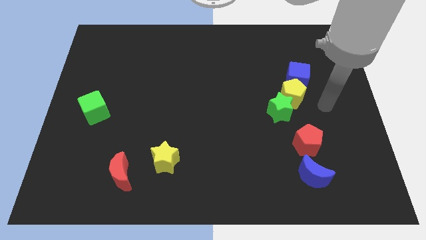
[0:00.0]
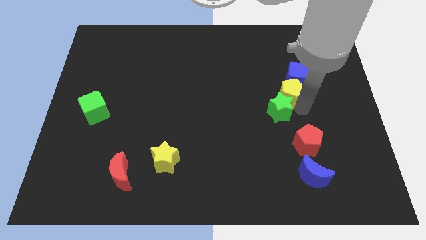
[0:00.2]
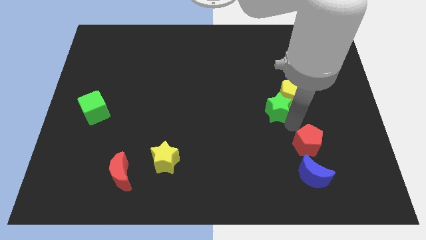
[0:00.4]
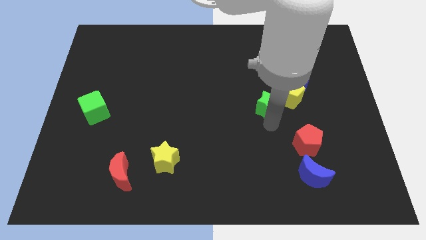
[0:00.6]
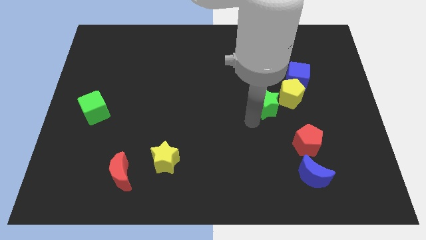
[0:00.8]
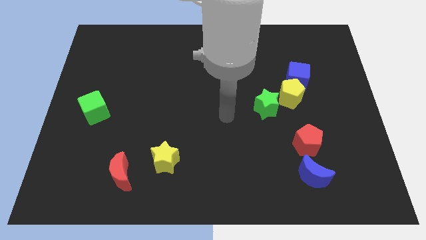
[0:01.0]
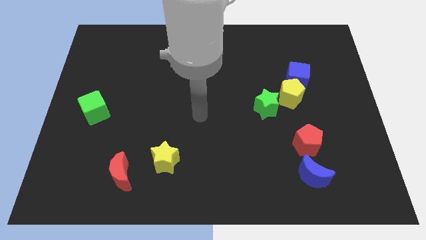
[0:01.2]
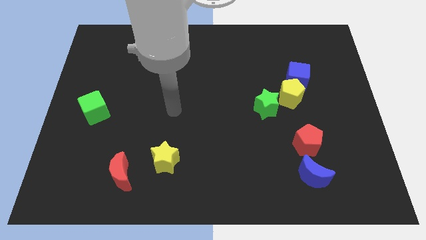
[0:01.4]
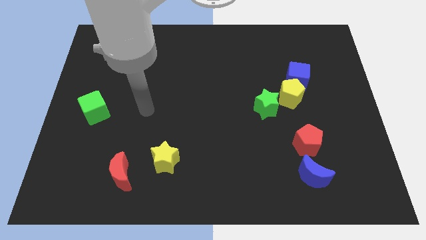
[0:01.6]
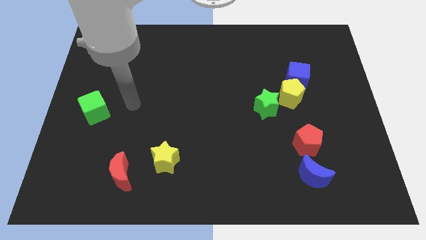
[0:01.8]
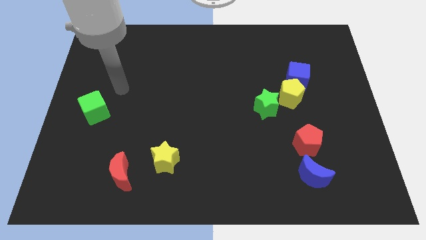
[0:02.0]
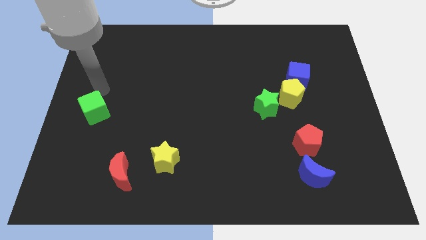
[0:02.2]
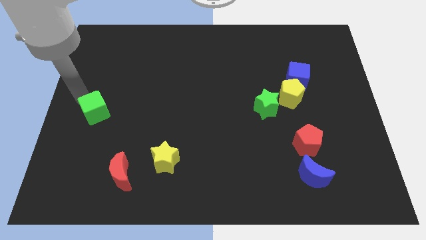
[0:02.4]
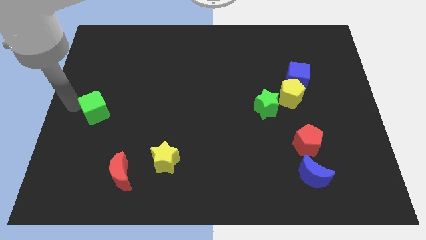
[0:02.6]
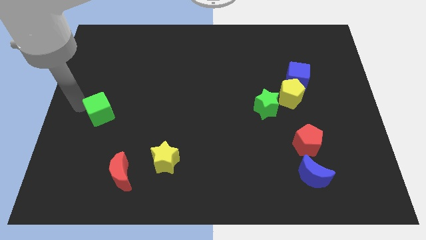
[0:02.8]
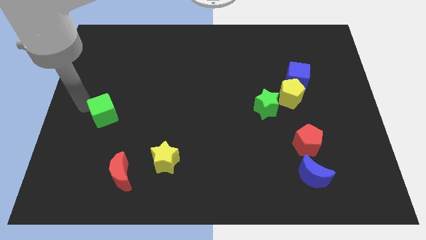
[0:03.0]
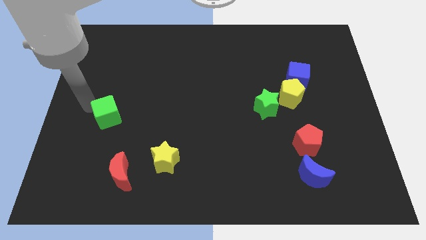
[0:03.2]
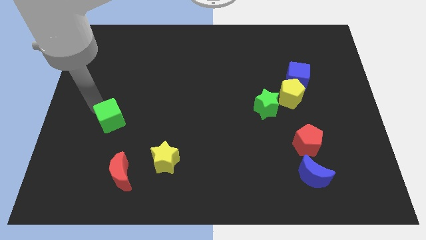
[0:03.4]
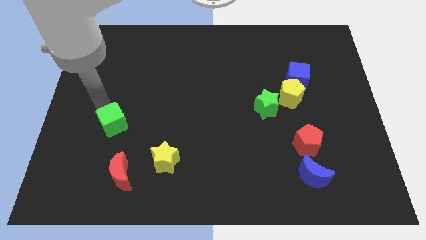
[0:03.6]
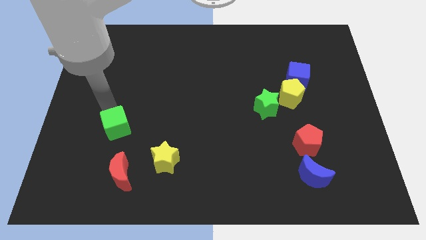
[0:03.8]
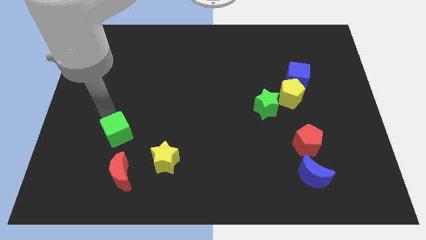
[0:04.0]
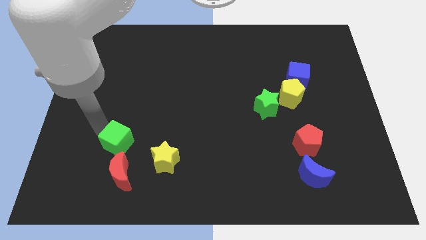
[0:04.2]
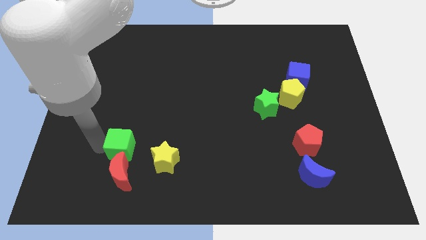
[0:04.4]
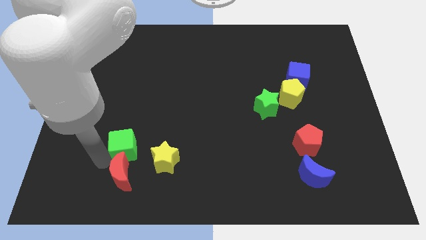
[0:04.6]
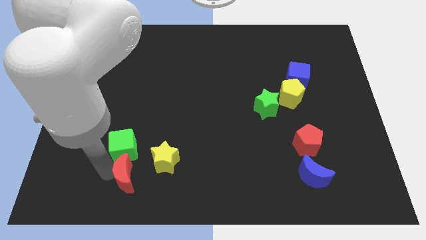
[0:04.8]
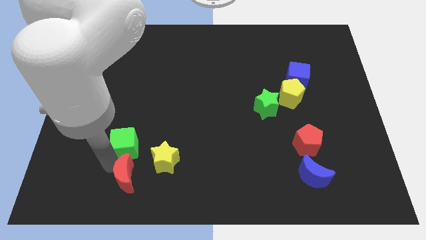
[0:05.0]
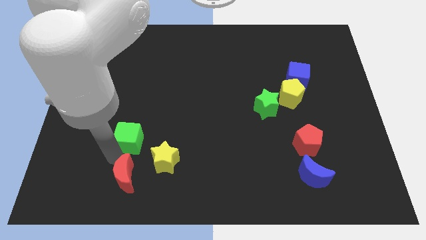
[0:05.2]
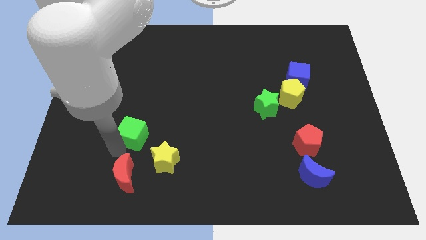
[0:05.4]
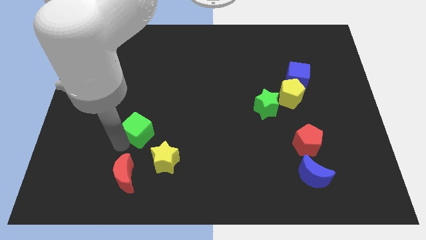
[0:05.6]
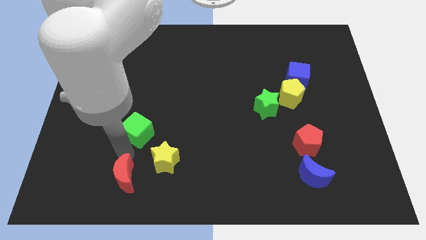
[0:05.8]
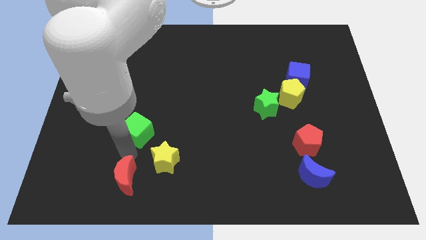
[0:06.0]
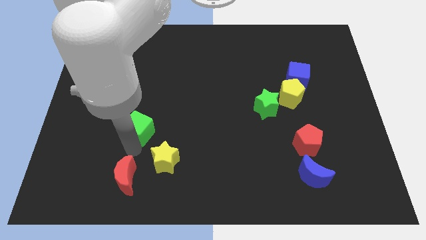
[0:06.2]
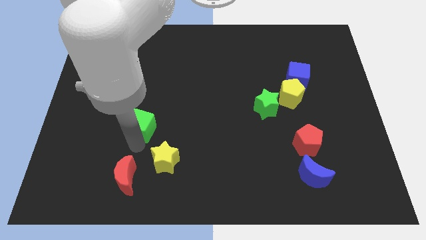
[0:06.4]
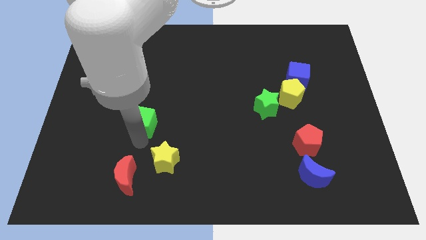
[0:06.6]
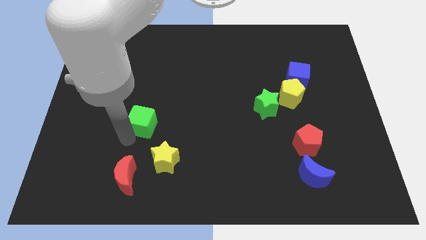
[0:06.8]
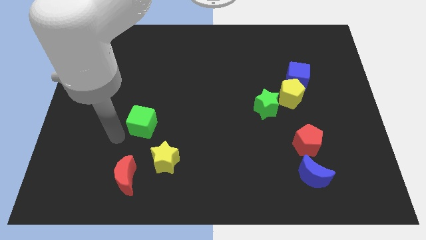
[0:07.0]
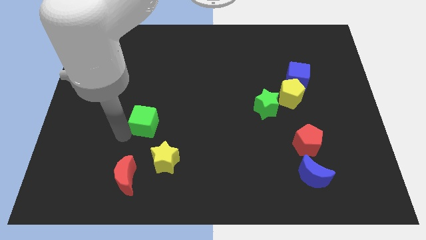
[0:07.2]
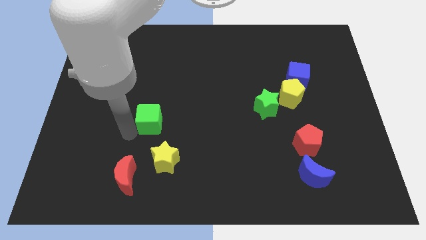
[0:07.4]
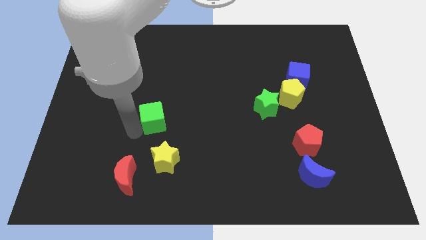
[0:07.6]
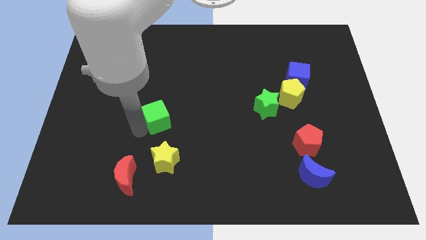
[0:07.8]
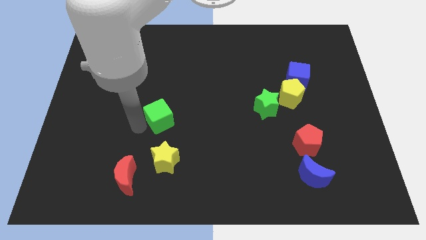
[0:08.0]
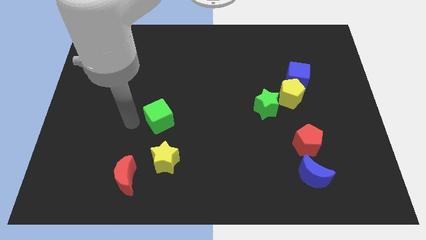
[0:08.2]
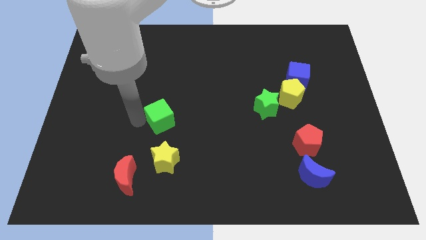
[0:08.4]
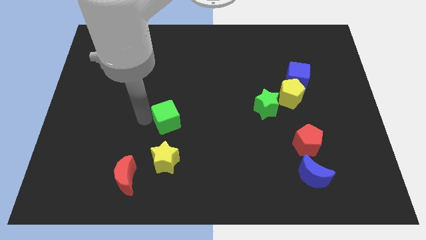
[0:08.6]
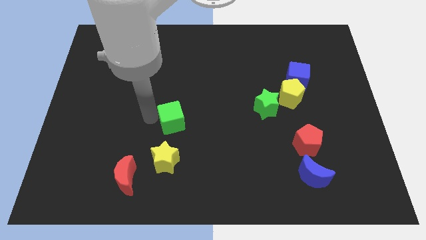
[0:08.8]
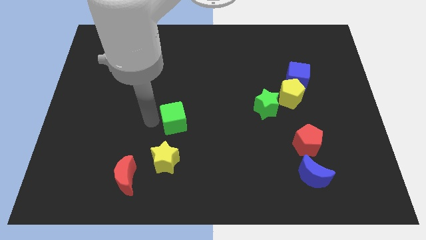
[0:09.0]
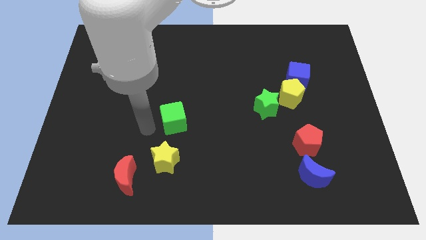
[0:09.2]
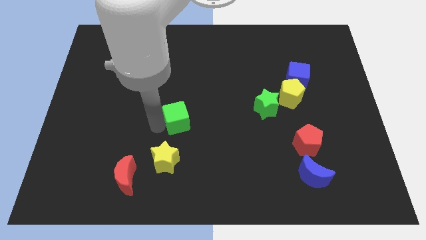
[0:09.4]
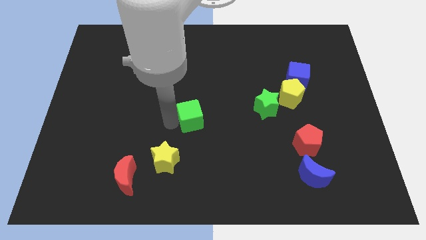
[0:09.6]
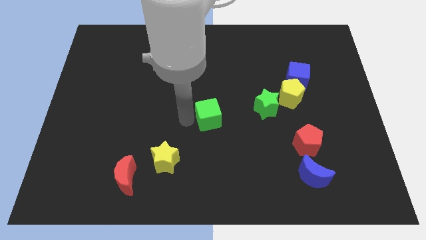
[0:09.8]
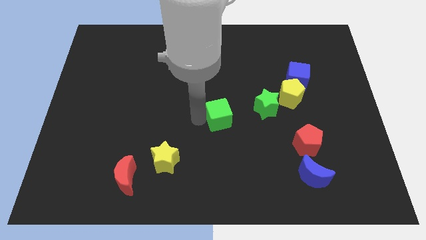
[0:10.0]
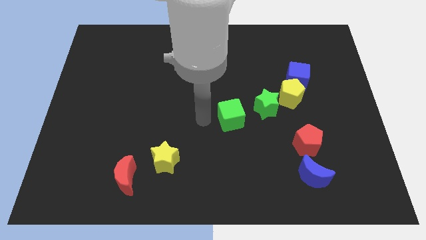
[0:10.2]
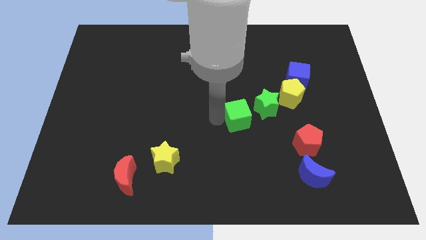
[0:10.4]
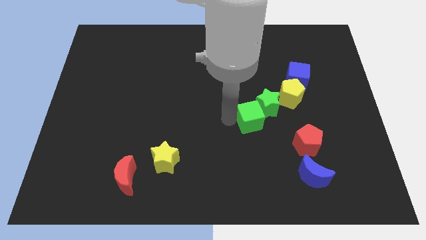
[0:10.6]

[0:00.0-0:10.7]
move the green cube next to the green star

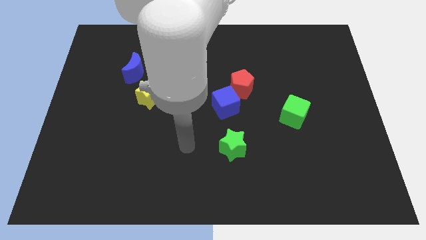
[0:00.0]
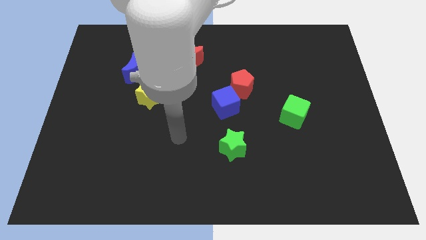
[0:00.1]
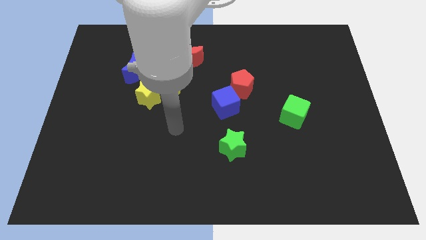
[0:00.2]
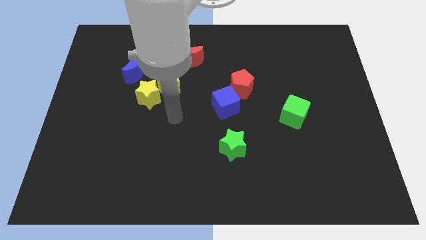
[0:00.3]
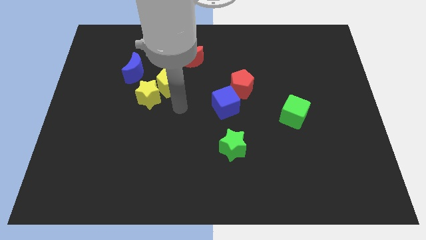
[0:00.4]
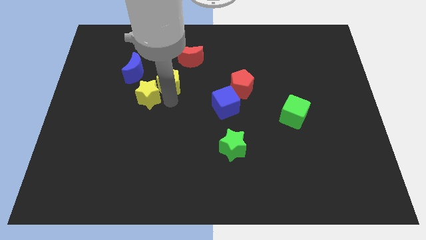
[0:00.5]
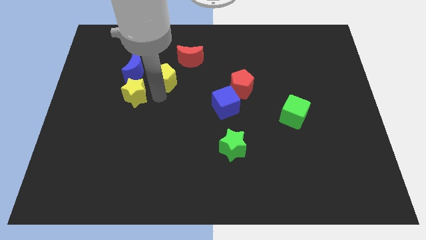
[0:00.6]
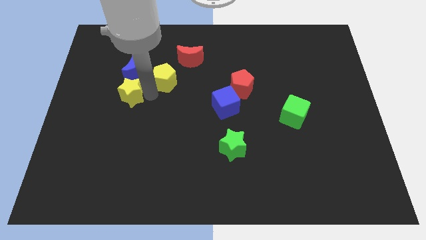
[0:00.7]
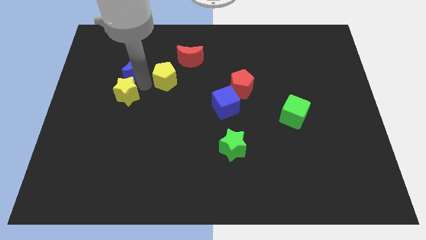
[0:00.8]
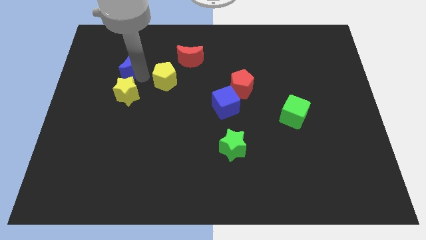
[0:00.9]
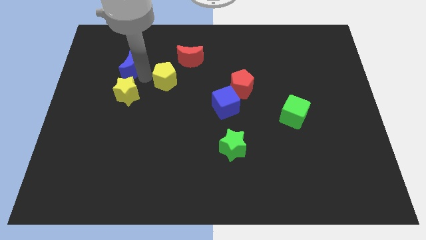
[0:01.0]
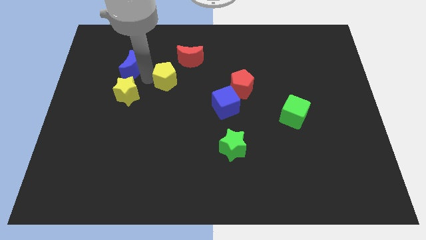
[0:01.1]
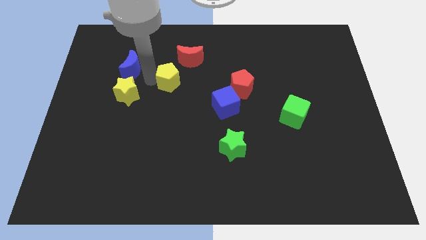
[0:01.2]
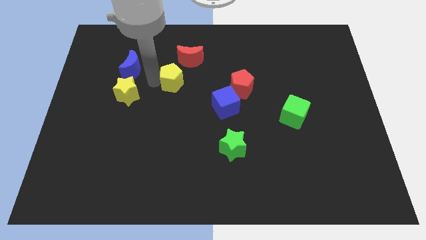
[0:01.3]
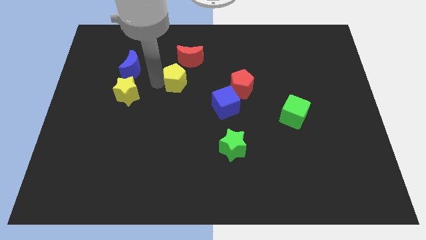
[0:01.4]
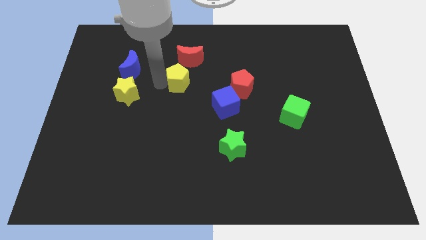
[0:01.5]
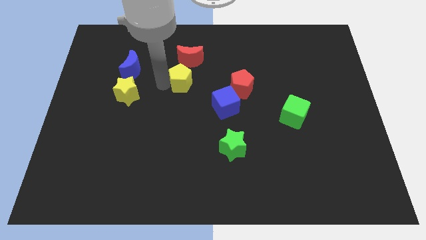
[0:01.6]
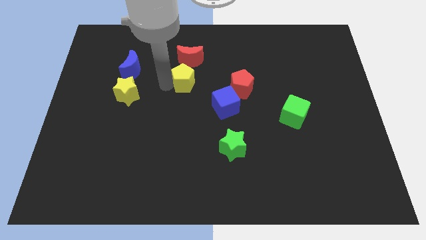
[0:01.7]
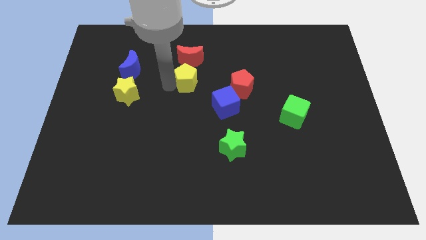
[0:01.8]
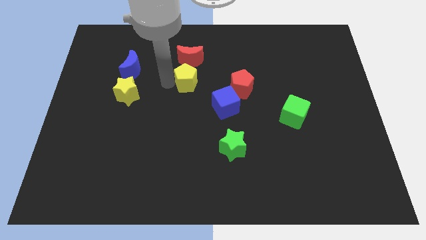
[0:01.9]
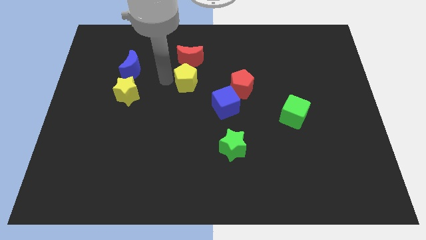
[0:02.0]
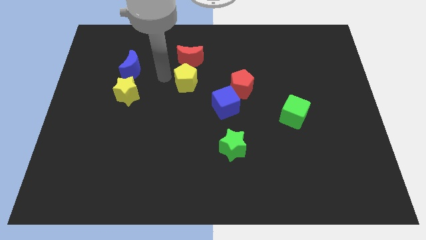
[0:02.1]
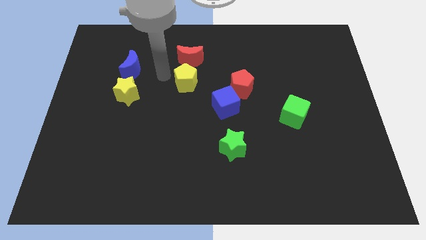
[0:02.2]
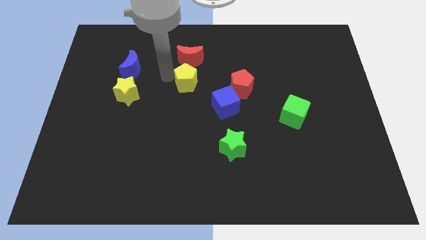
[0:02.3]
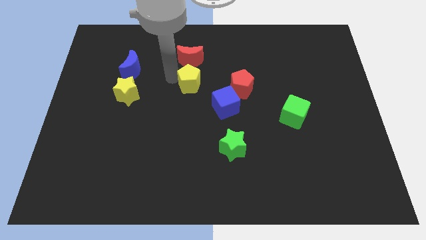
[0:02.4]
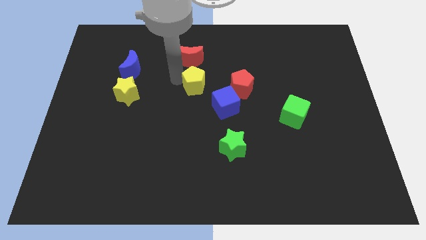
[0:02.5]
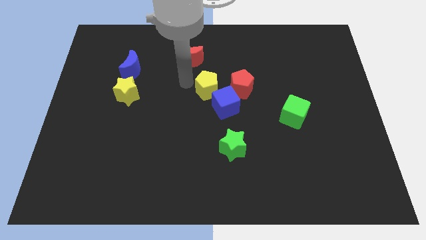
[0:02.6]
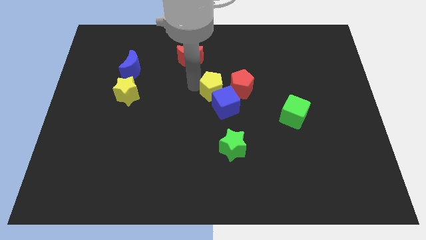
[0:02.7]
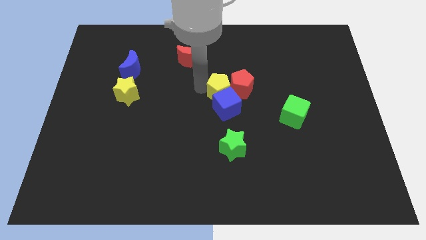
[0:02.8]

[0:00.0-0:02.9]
put the yellow pentagon to the red pentagon
